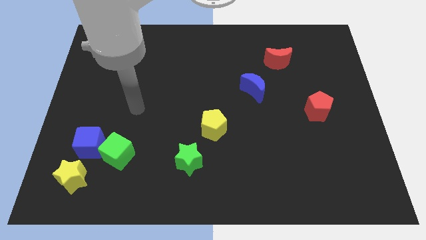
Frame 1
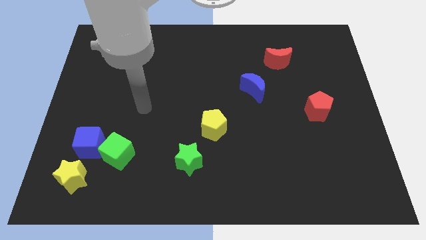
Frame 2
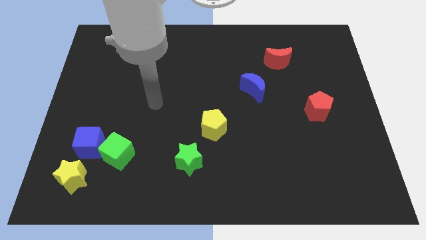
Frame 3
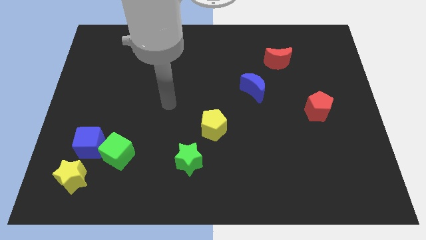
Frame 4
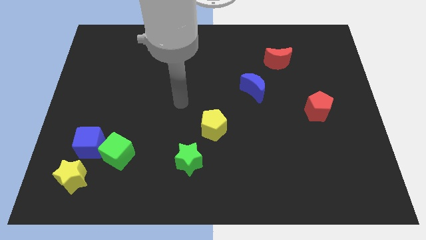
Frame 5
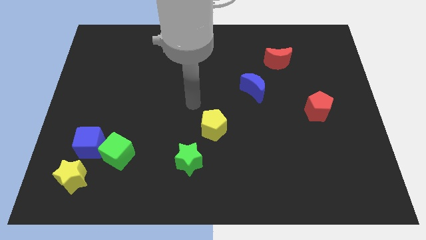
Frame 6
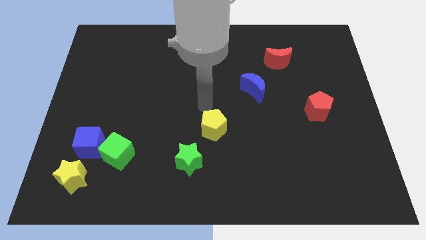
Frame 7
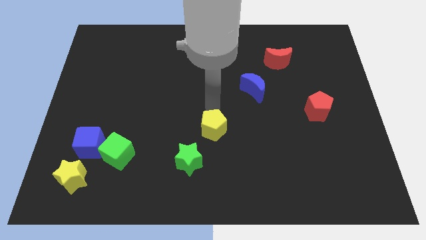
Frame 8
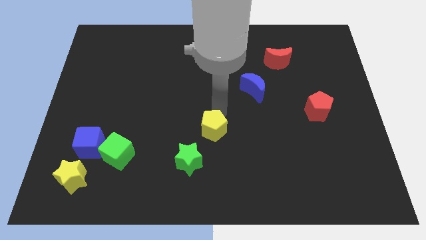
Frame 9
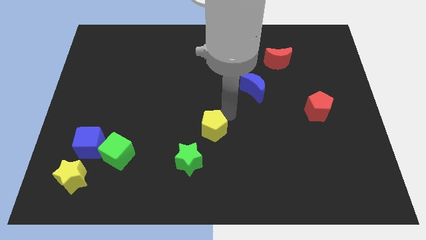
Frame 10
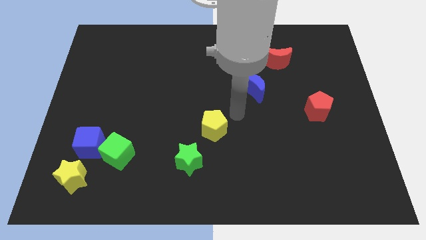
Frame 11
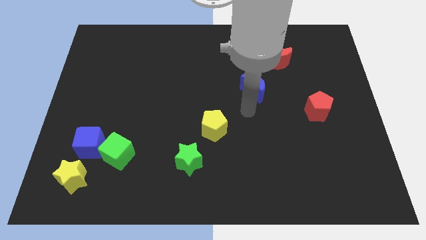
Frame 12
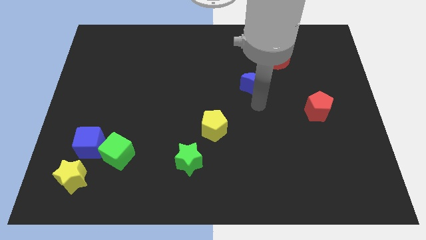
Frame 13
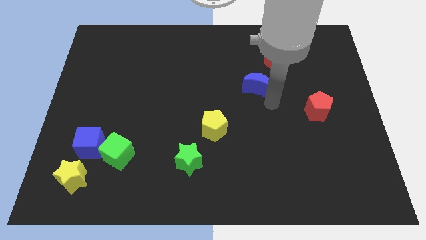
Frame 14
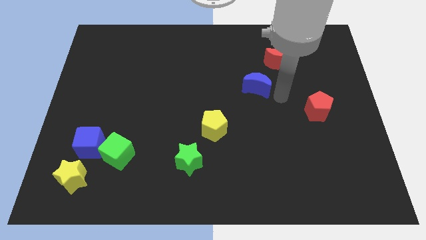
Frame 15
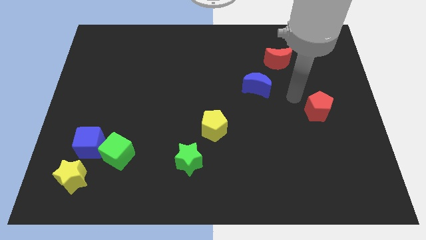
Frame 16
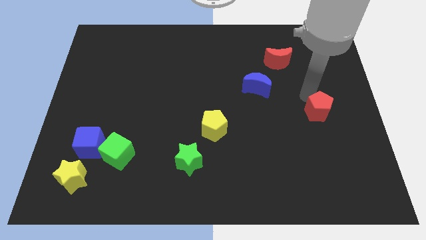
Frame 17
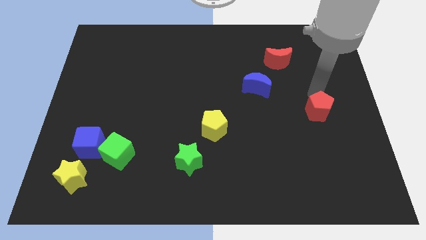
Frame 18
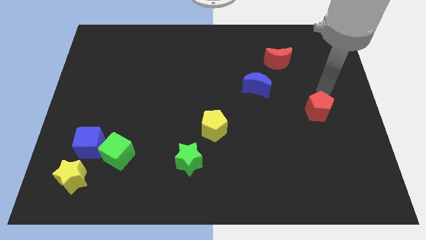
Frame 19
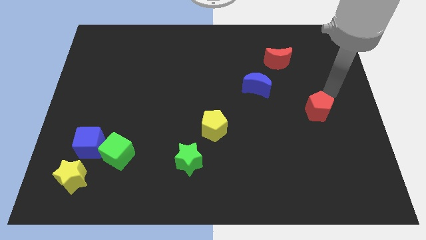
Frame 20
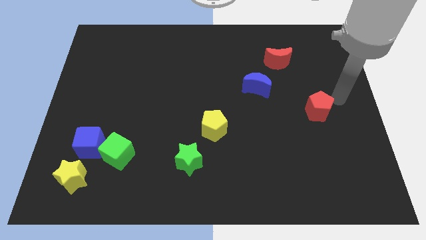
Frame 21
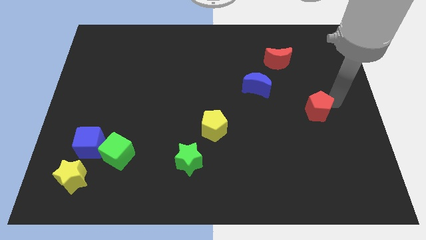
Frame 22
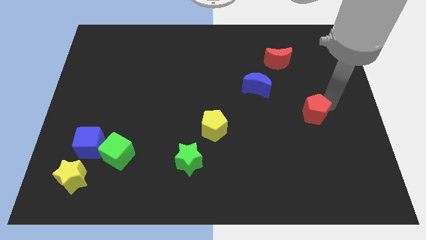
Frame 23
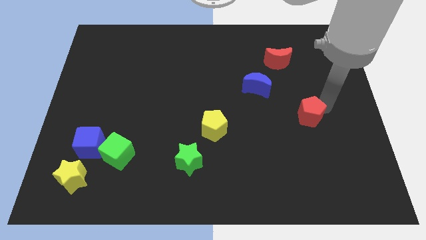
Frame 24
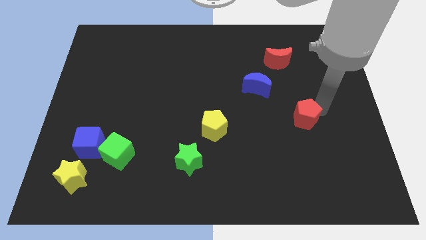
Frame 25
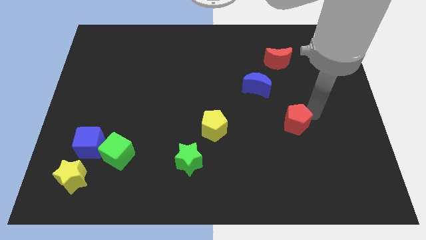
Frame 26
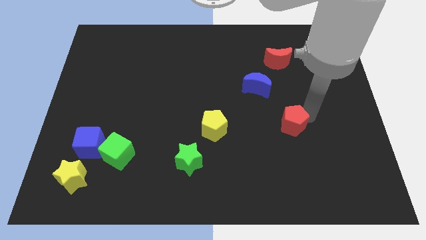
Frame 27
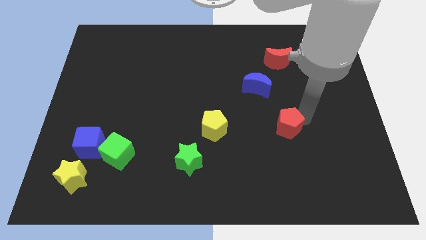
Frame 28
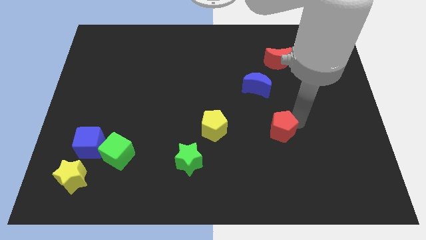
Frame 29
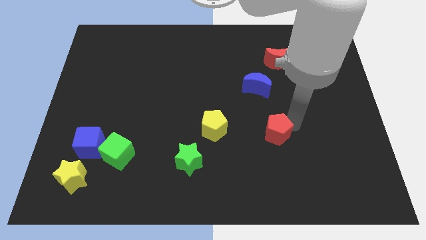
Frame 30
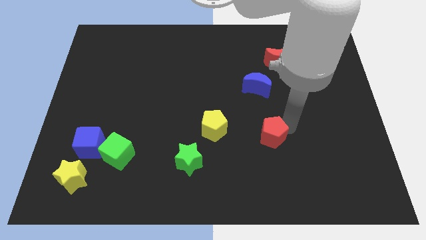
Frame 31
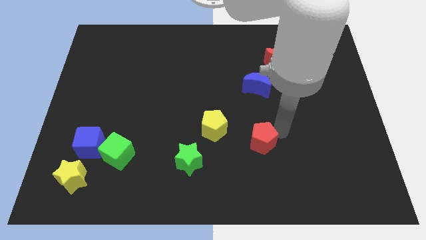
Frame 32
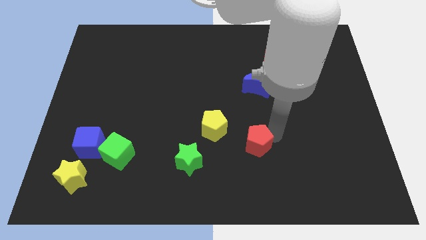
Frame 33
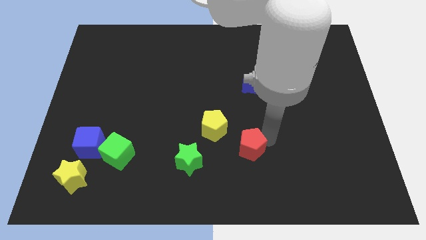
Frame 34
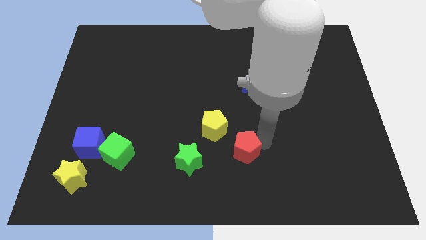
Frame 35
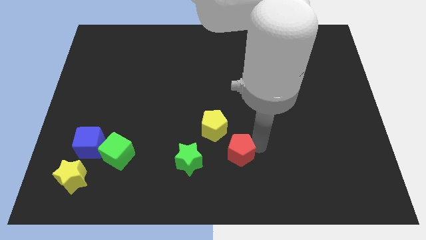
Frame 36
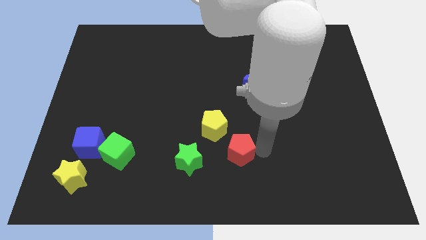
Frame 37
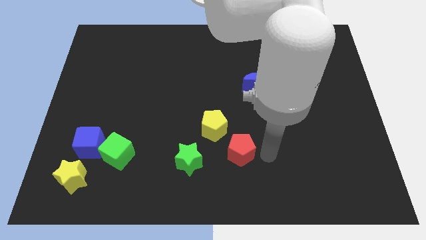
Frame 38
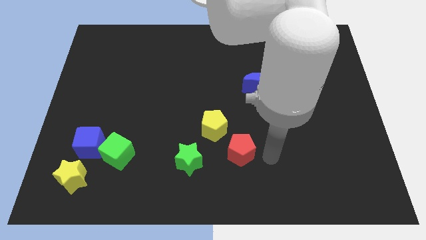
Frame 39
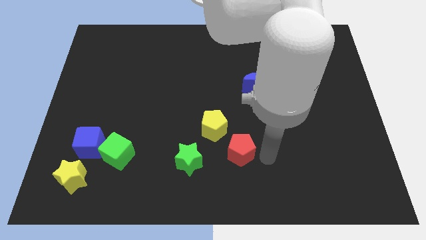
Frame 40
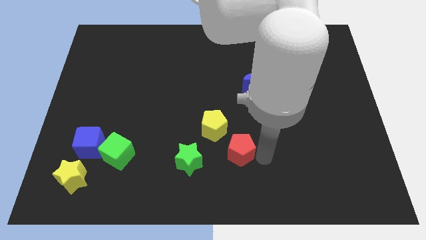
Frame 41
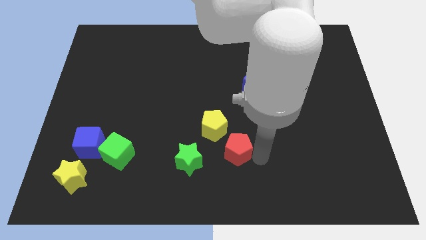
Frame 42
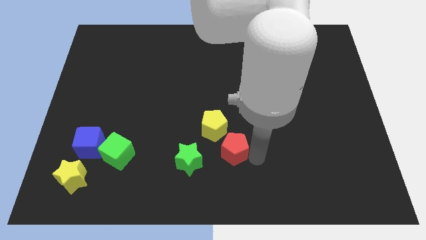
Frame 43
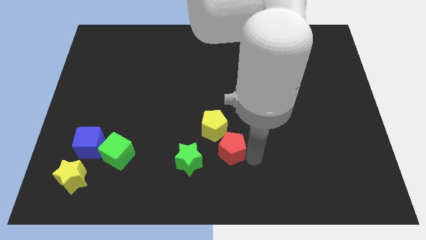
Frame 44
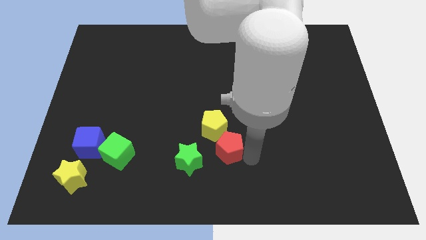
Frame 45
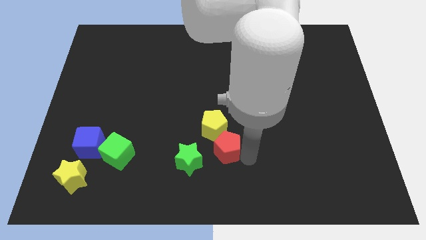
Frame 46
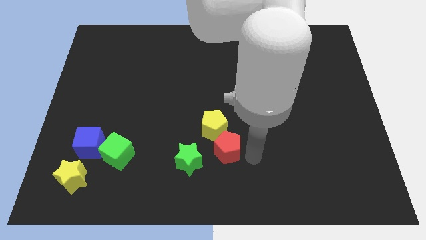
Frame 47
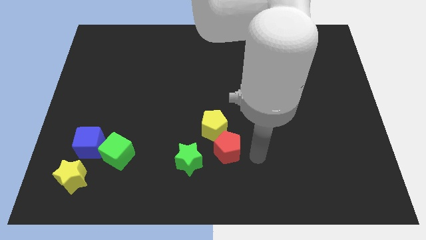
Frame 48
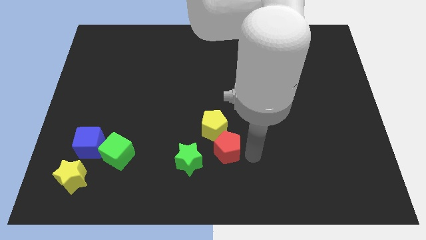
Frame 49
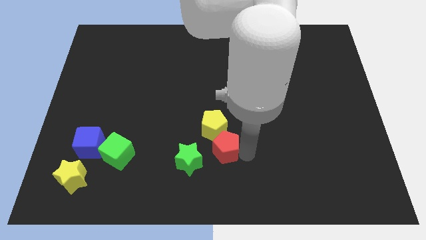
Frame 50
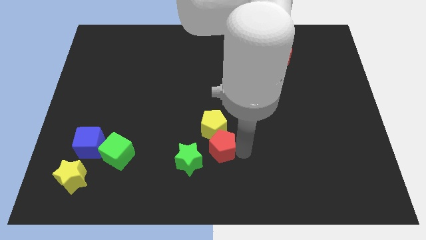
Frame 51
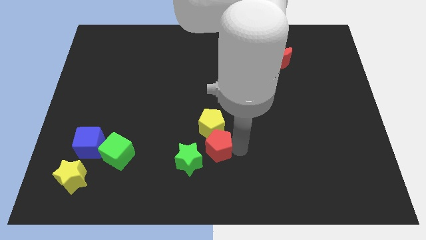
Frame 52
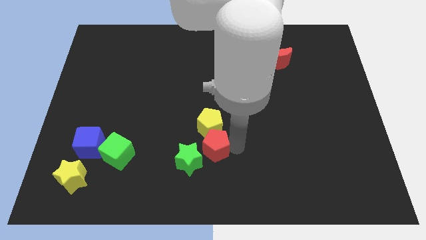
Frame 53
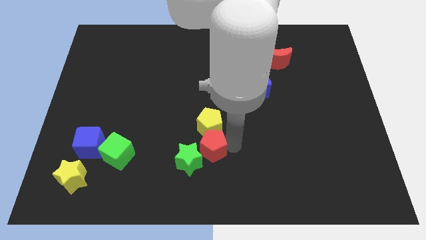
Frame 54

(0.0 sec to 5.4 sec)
push the red pentagon to the green star

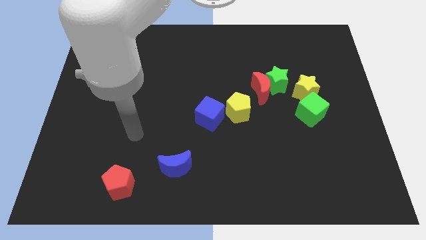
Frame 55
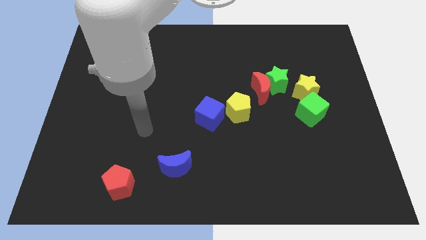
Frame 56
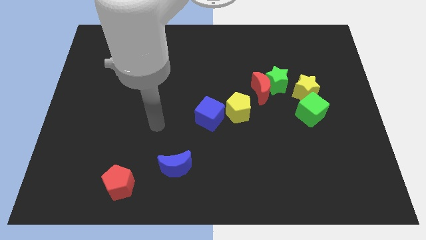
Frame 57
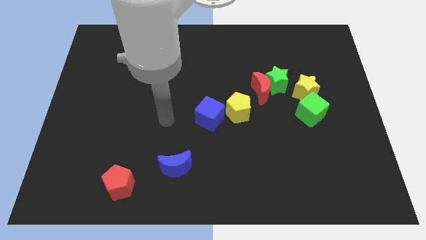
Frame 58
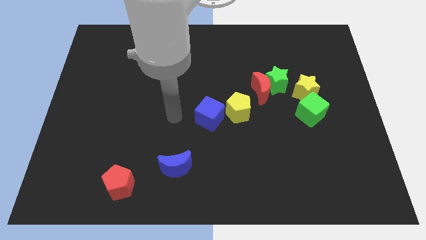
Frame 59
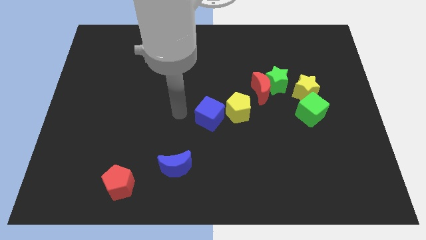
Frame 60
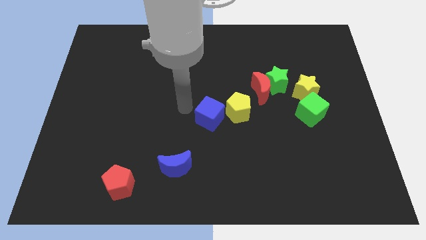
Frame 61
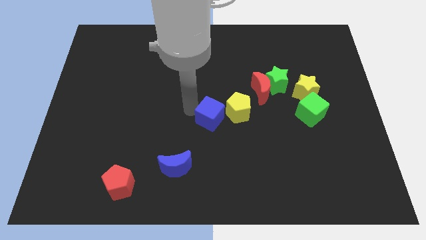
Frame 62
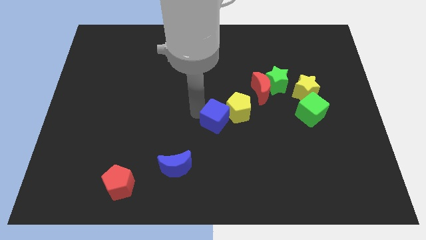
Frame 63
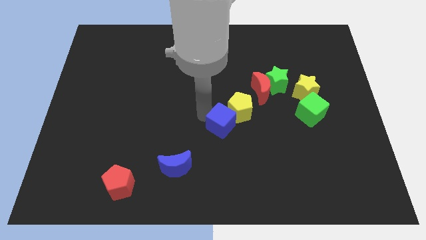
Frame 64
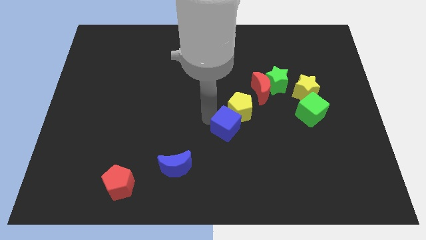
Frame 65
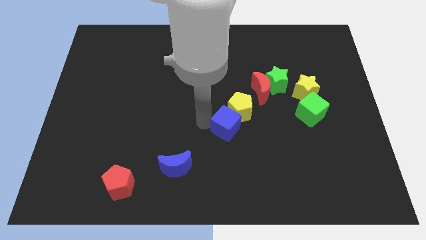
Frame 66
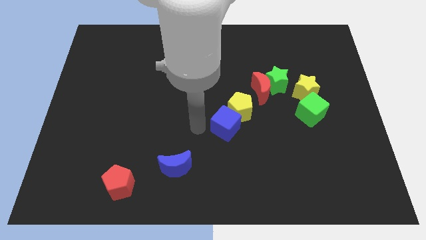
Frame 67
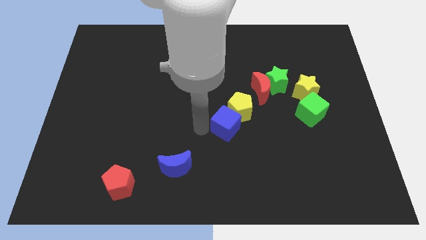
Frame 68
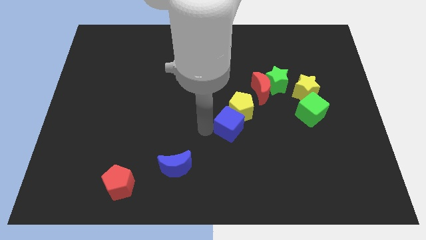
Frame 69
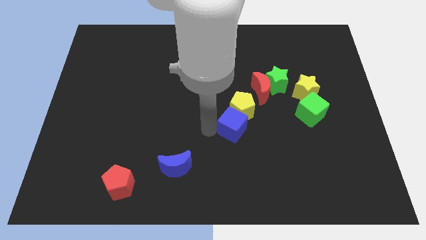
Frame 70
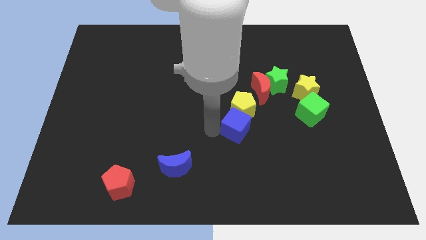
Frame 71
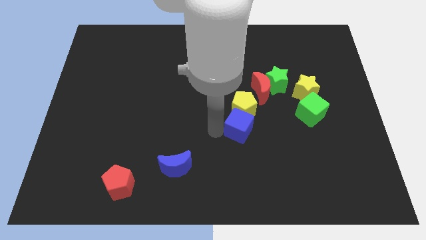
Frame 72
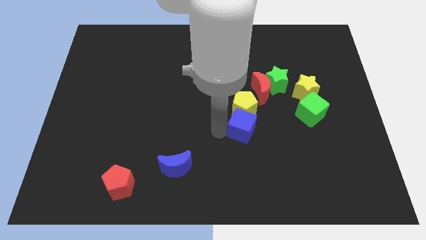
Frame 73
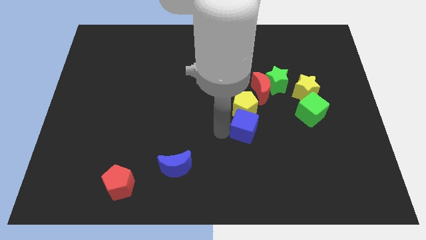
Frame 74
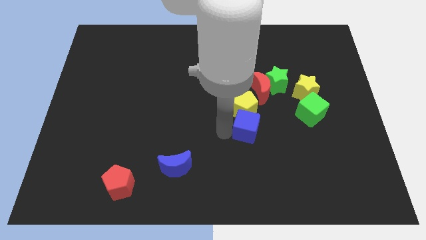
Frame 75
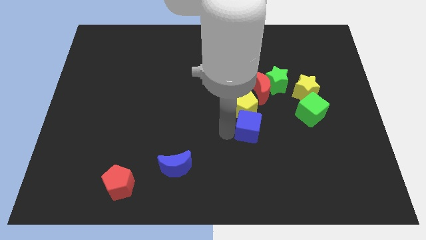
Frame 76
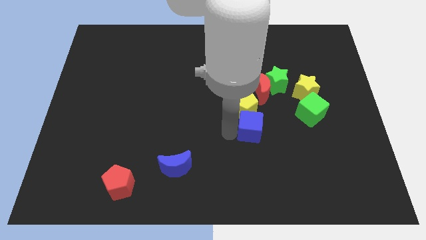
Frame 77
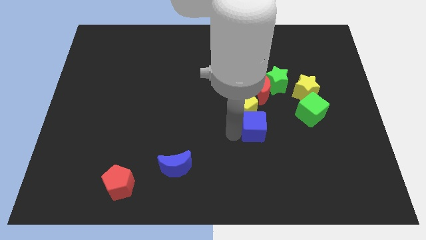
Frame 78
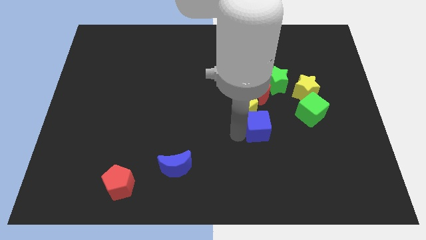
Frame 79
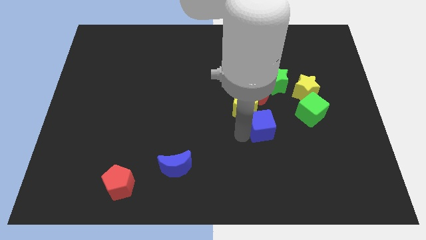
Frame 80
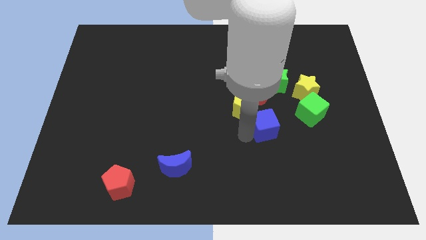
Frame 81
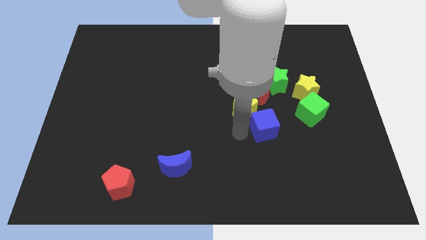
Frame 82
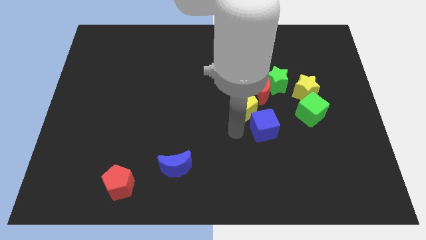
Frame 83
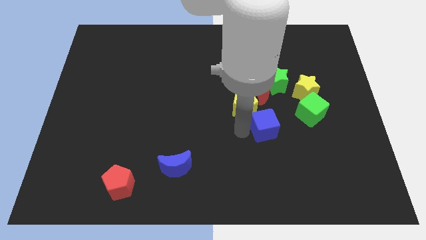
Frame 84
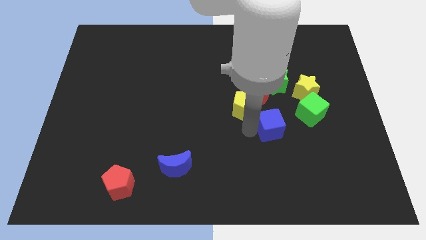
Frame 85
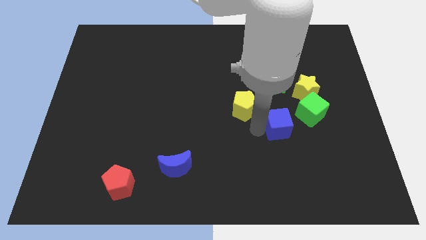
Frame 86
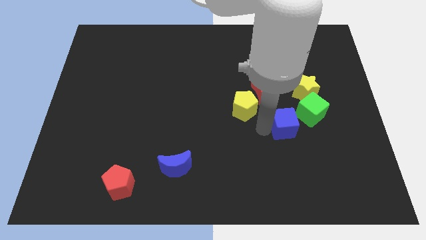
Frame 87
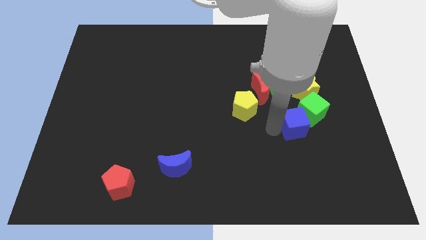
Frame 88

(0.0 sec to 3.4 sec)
move the blue cube next to the green cube
